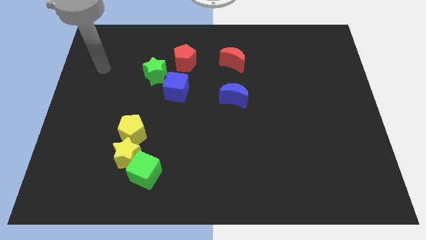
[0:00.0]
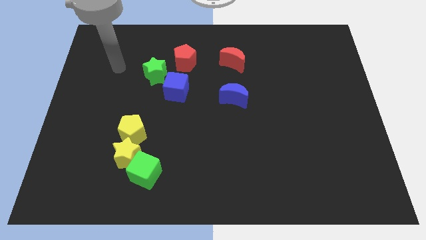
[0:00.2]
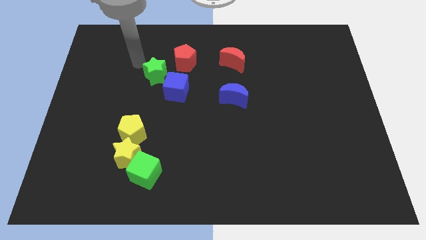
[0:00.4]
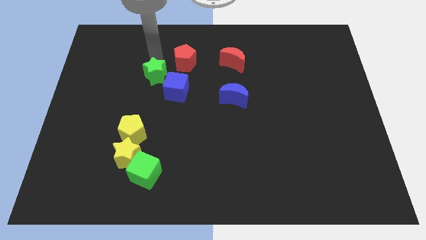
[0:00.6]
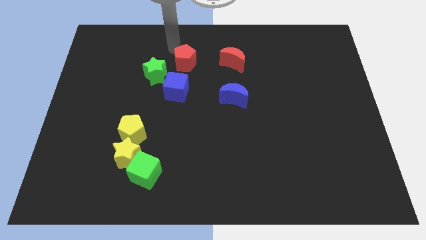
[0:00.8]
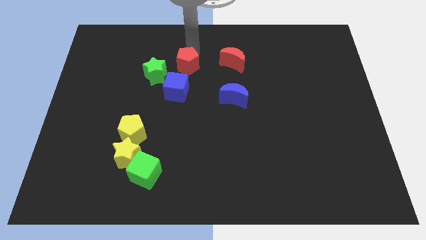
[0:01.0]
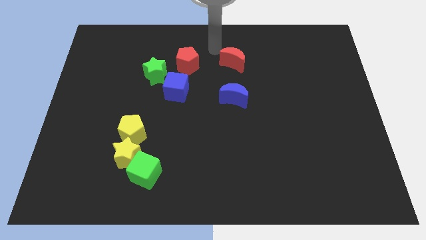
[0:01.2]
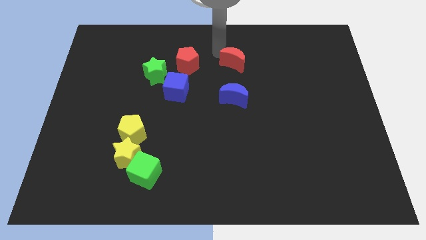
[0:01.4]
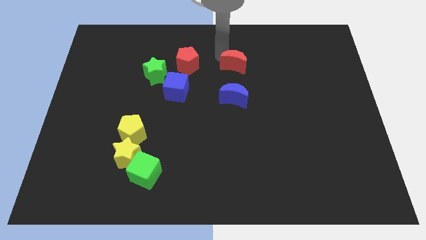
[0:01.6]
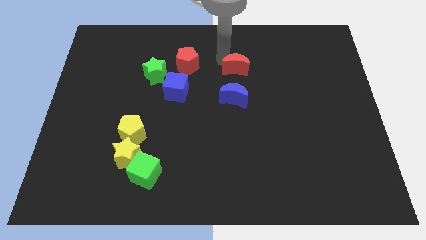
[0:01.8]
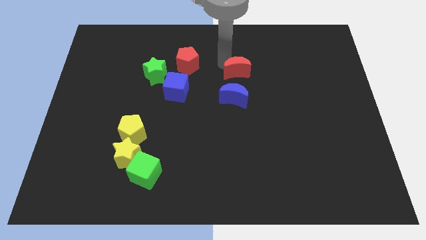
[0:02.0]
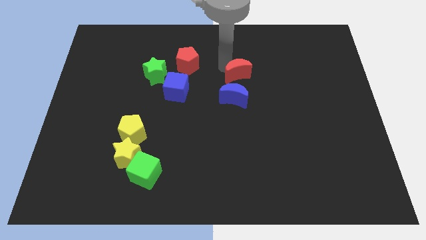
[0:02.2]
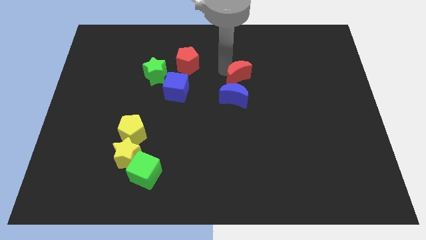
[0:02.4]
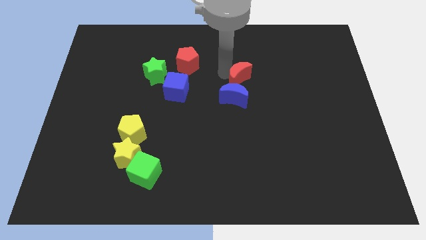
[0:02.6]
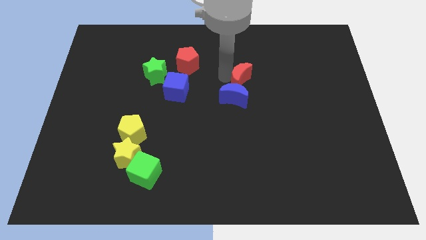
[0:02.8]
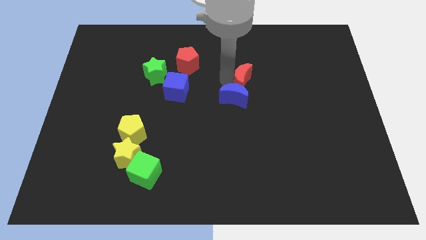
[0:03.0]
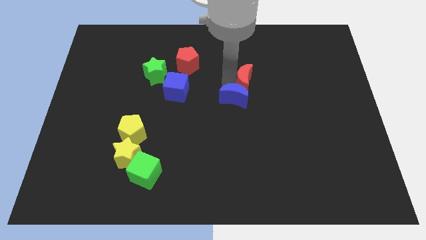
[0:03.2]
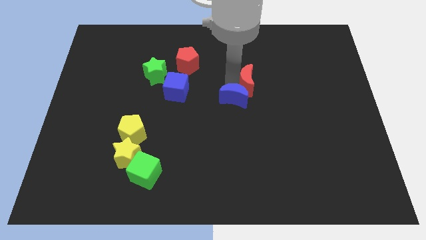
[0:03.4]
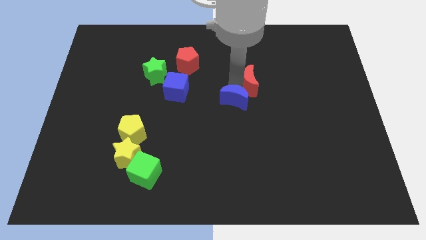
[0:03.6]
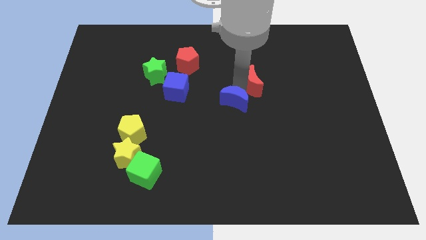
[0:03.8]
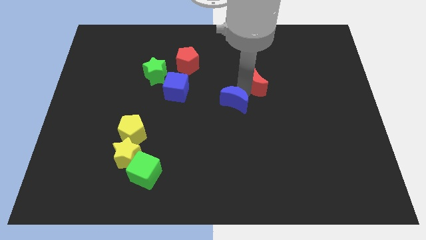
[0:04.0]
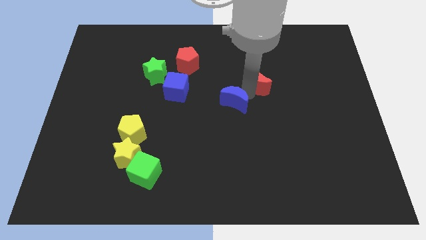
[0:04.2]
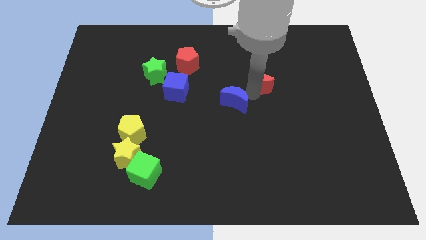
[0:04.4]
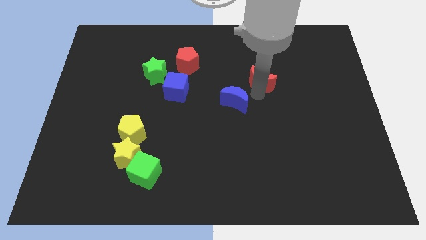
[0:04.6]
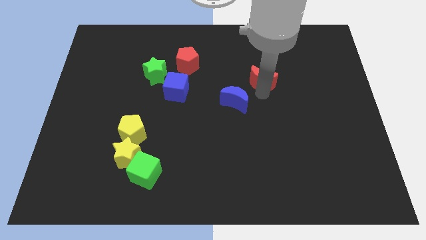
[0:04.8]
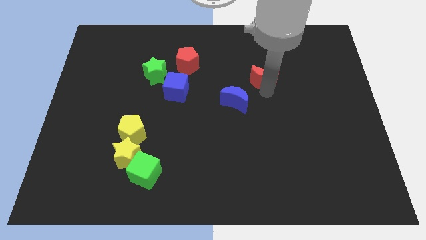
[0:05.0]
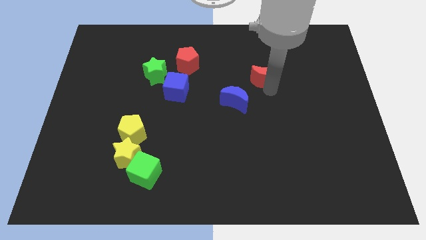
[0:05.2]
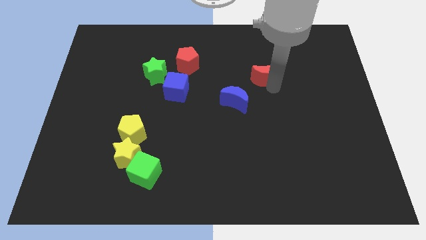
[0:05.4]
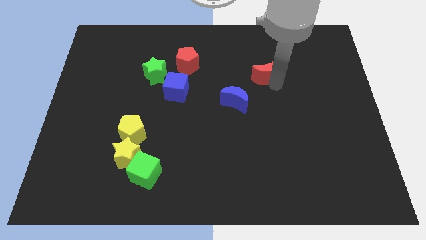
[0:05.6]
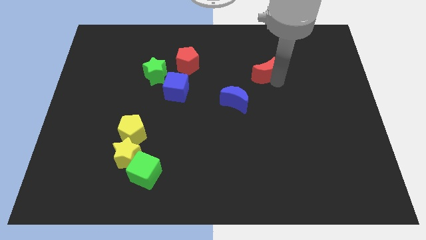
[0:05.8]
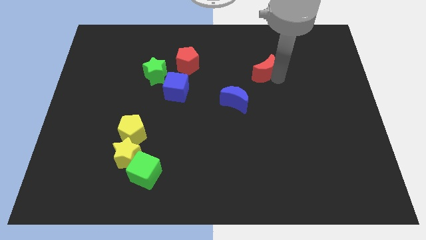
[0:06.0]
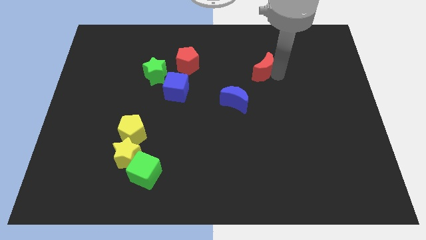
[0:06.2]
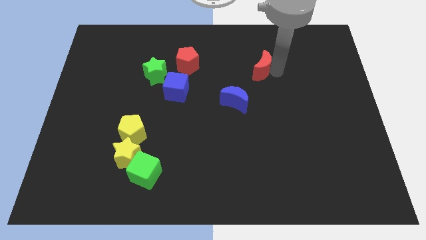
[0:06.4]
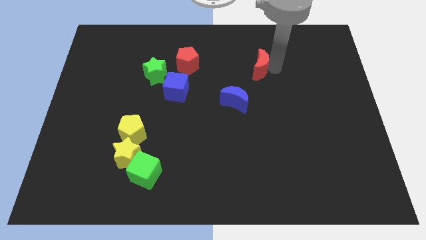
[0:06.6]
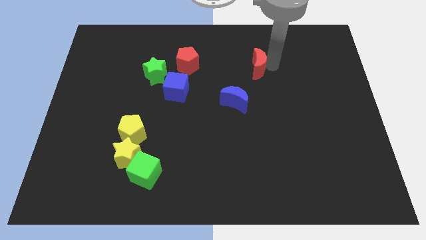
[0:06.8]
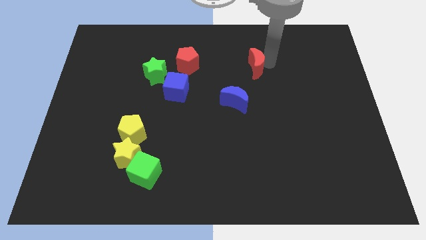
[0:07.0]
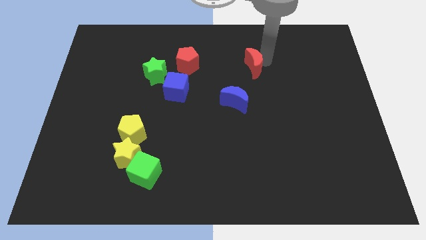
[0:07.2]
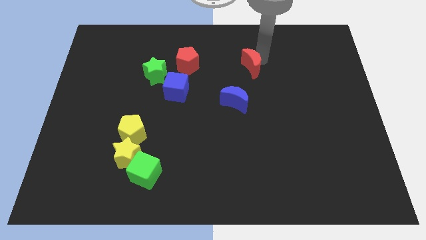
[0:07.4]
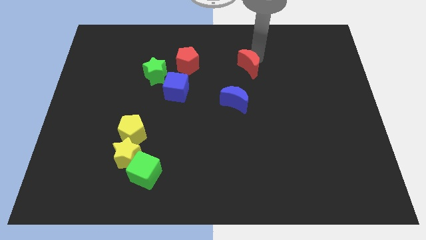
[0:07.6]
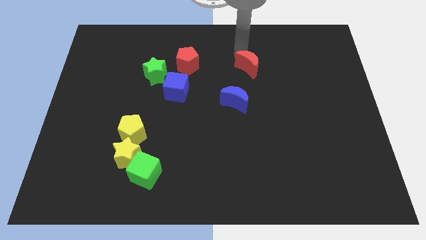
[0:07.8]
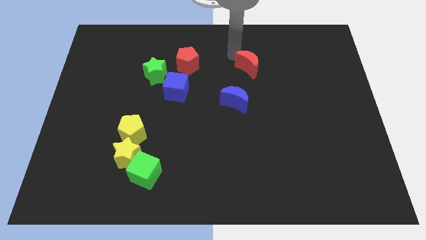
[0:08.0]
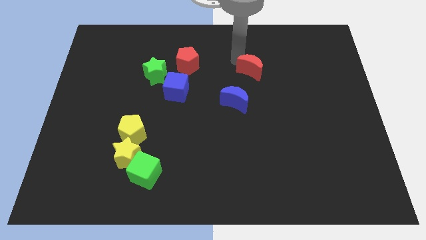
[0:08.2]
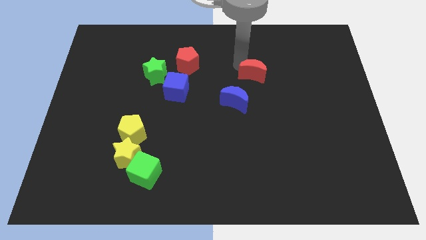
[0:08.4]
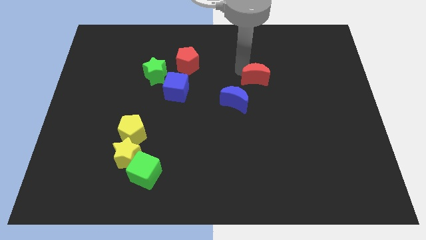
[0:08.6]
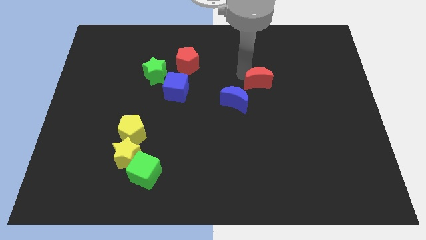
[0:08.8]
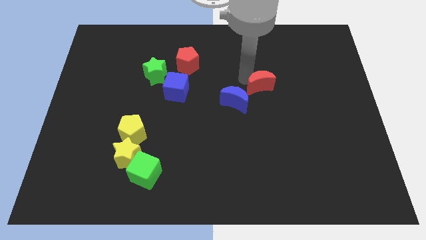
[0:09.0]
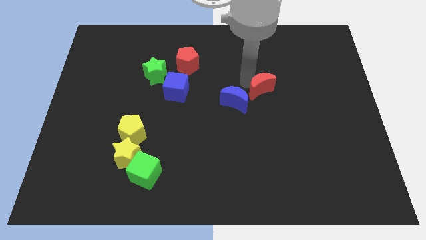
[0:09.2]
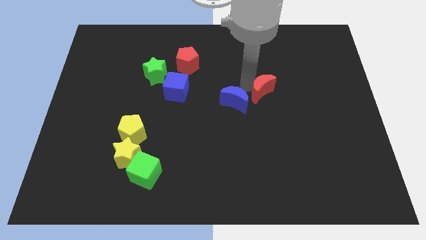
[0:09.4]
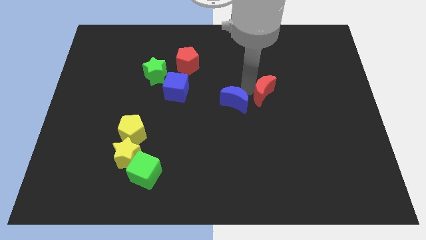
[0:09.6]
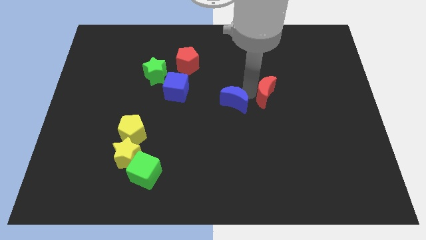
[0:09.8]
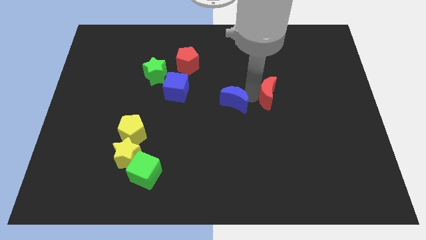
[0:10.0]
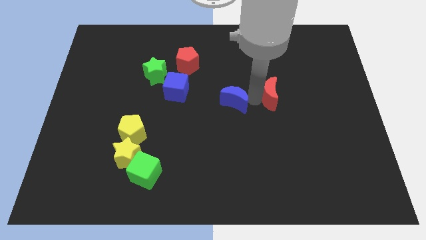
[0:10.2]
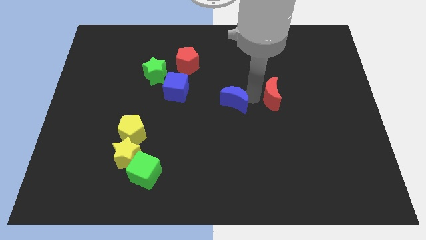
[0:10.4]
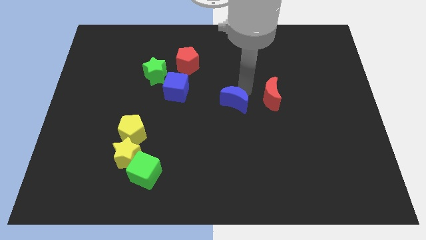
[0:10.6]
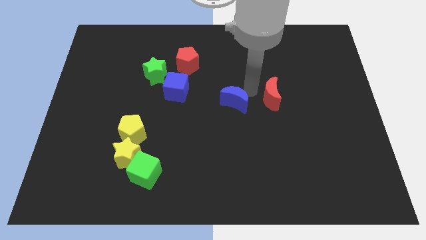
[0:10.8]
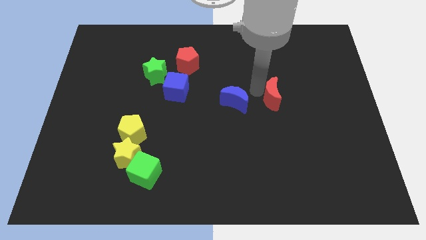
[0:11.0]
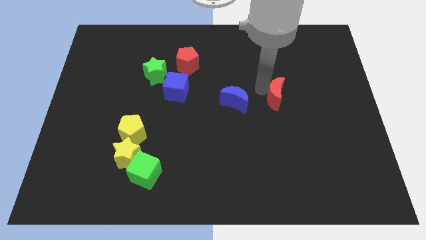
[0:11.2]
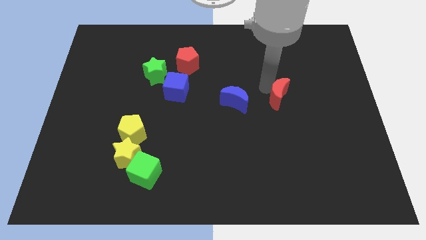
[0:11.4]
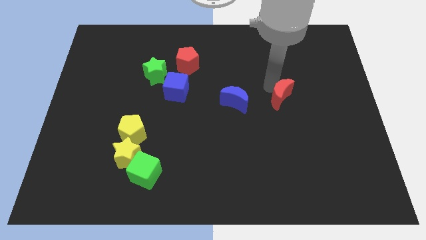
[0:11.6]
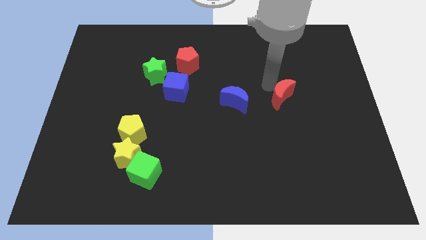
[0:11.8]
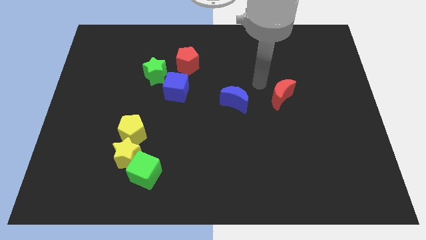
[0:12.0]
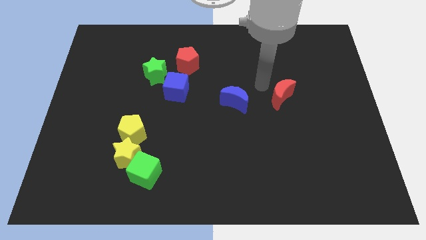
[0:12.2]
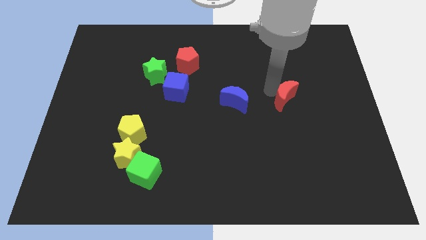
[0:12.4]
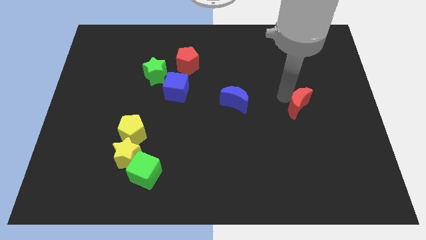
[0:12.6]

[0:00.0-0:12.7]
slide the red moon downwards and right diagonally

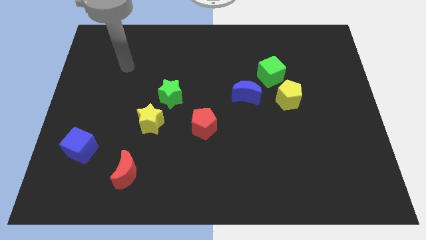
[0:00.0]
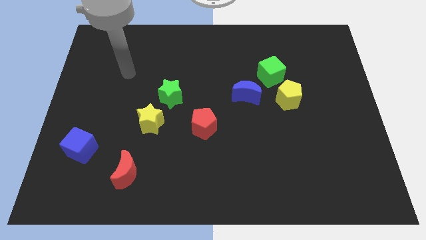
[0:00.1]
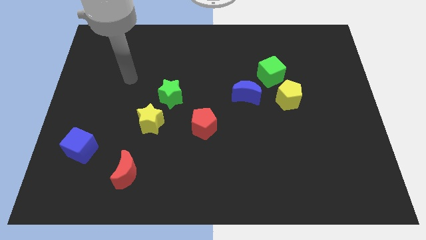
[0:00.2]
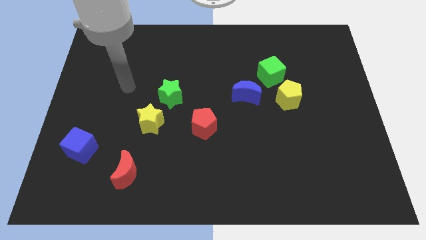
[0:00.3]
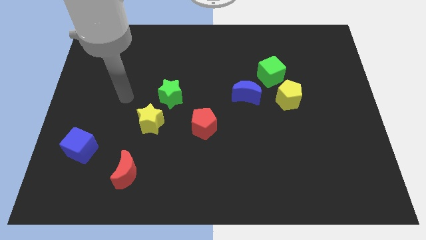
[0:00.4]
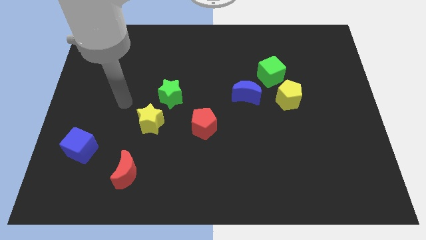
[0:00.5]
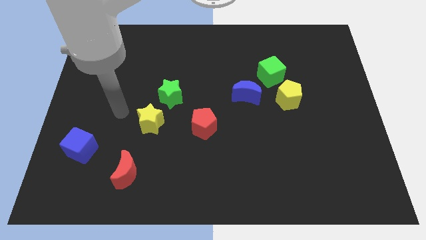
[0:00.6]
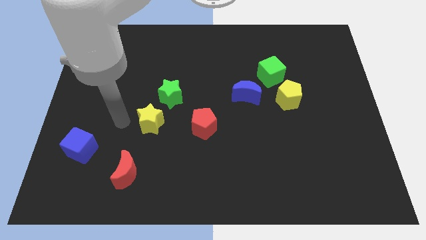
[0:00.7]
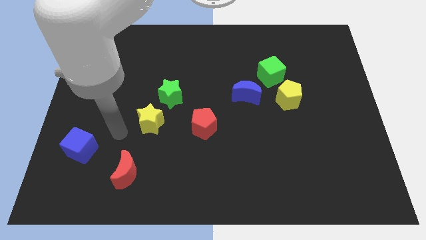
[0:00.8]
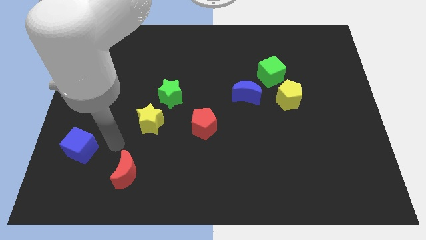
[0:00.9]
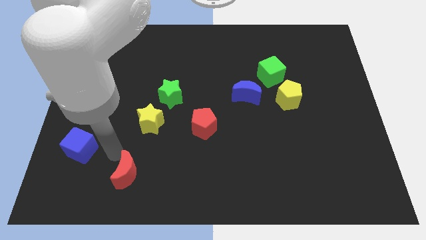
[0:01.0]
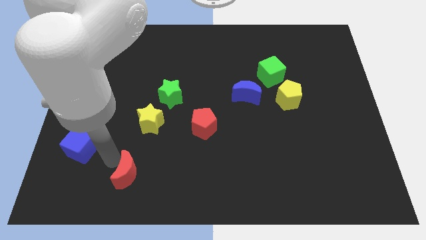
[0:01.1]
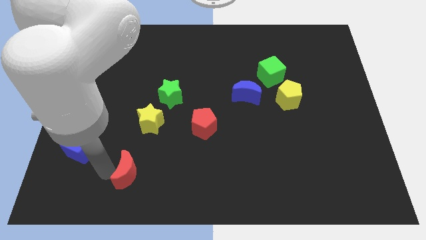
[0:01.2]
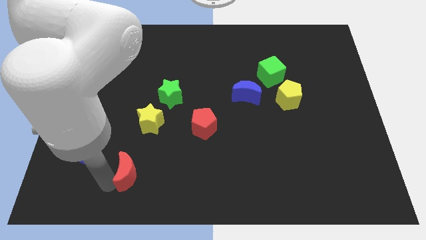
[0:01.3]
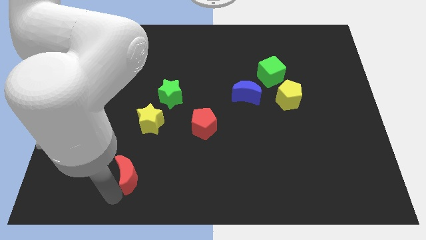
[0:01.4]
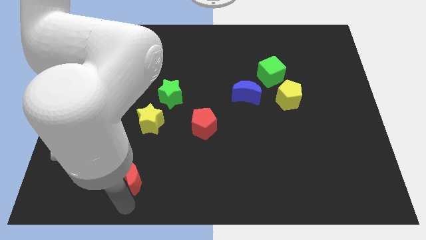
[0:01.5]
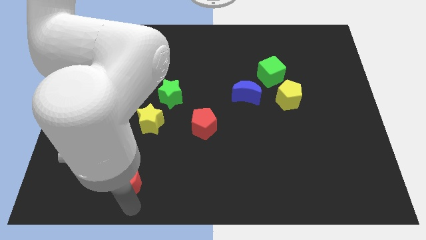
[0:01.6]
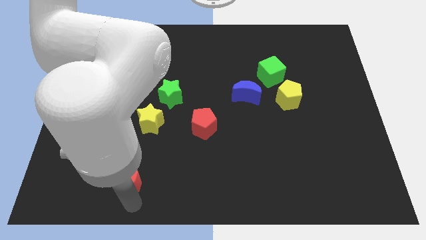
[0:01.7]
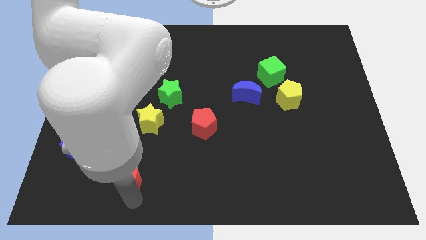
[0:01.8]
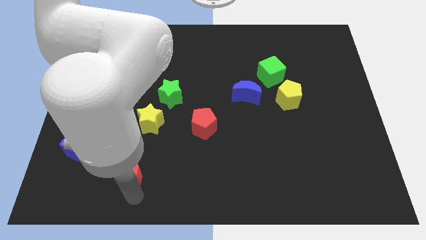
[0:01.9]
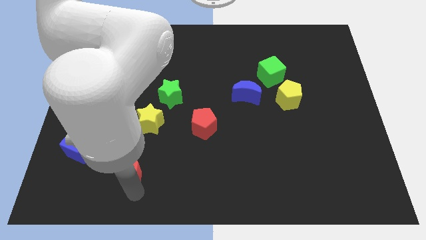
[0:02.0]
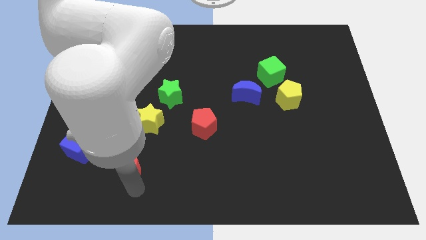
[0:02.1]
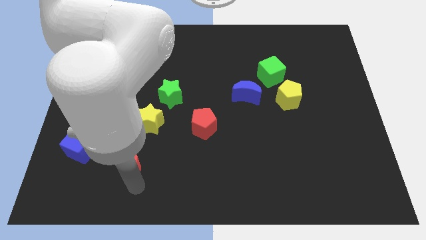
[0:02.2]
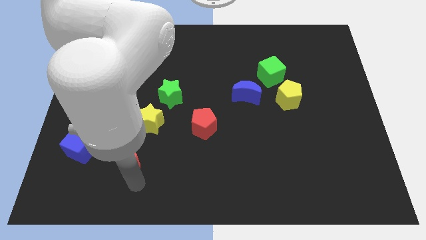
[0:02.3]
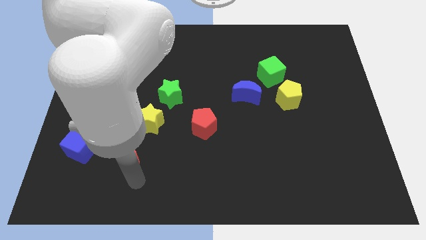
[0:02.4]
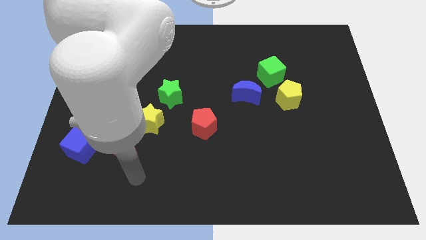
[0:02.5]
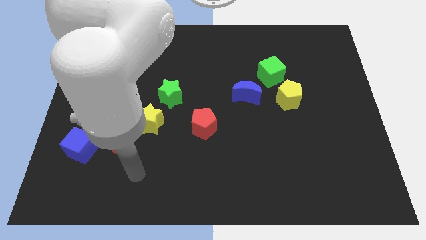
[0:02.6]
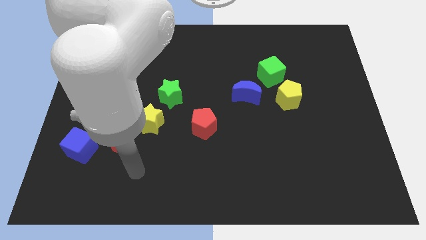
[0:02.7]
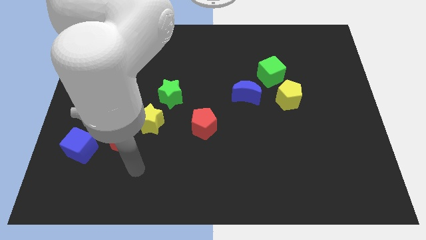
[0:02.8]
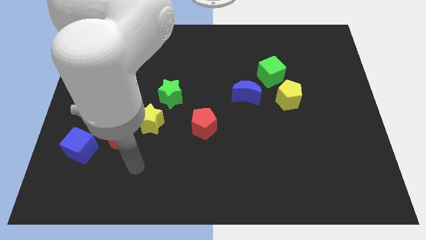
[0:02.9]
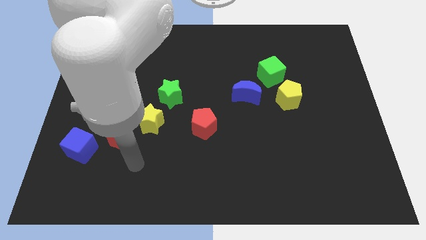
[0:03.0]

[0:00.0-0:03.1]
move the red moon a little bit upwards
